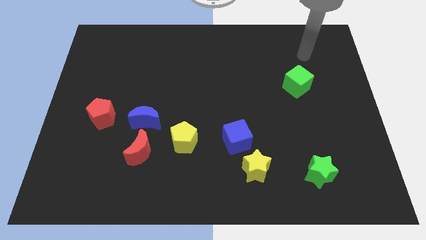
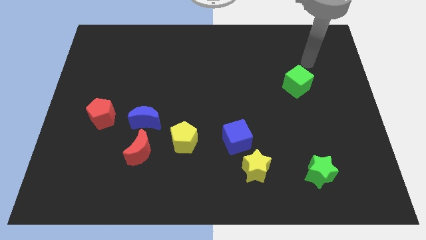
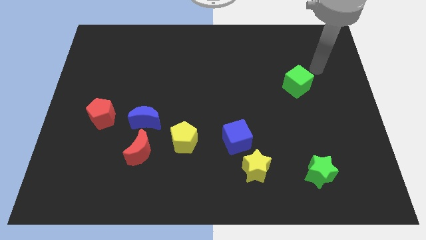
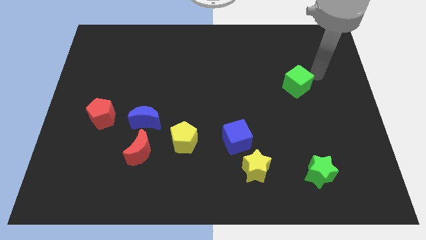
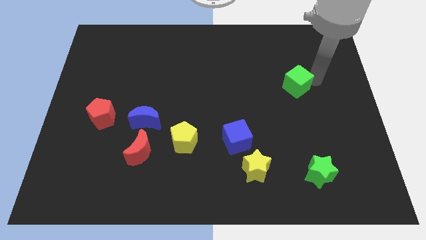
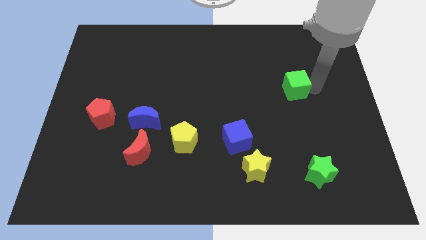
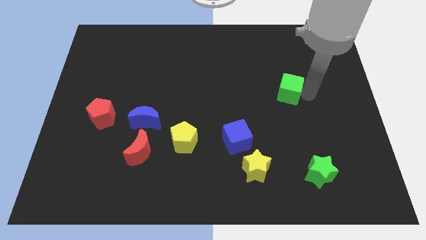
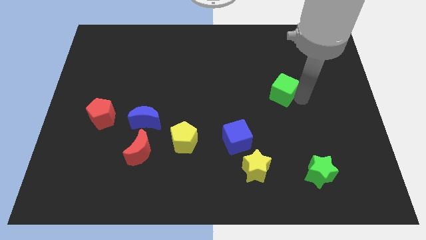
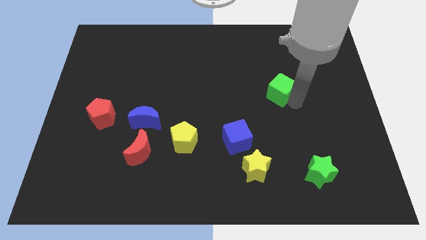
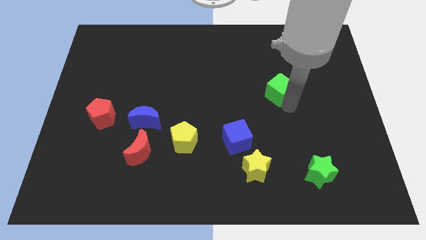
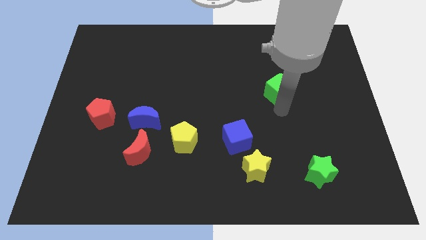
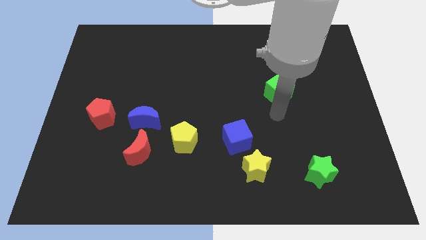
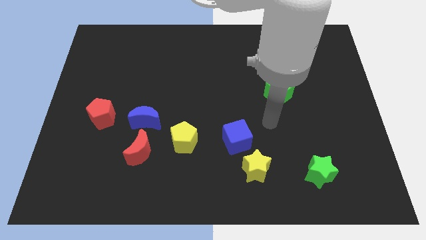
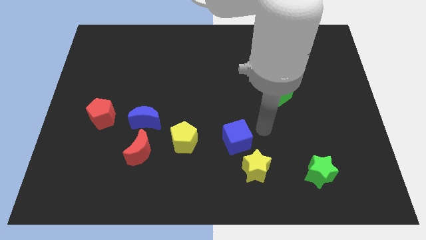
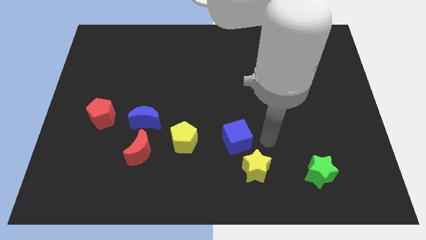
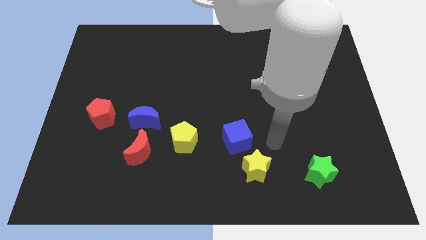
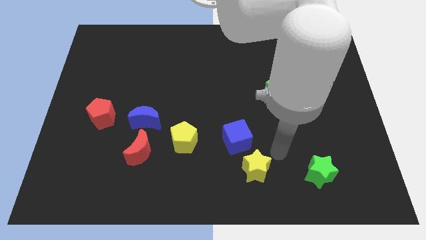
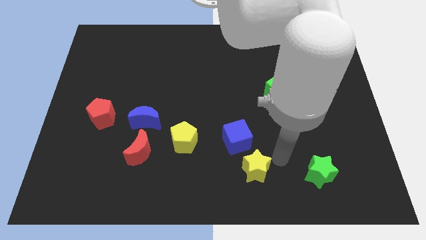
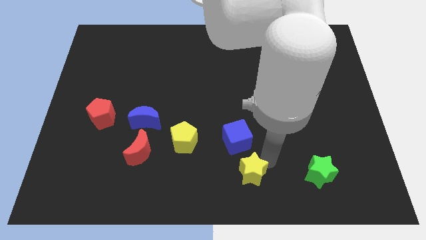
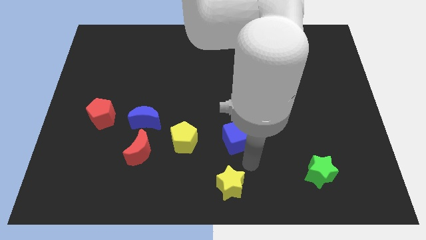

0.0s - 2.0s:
separate the blue cube from the yellow star

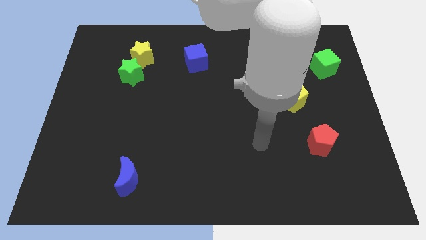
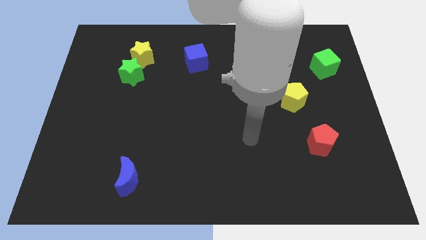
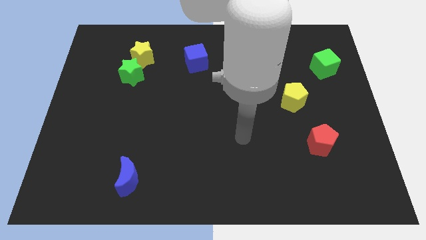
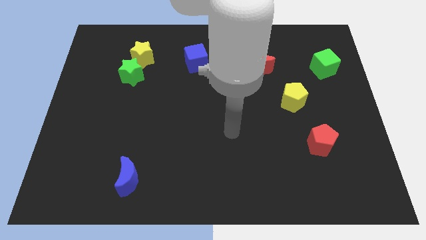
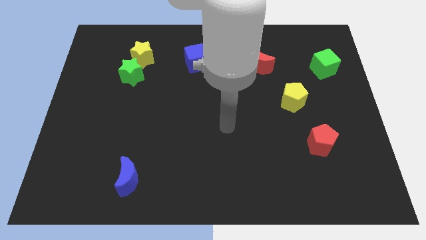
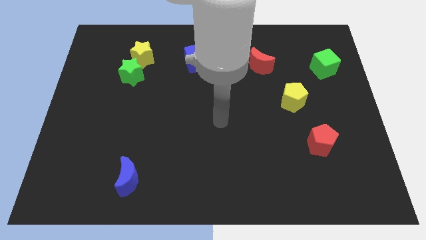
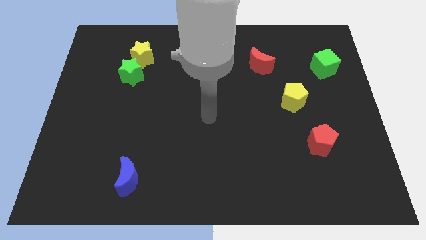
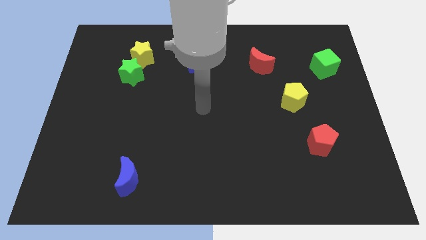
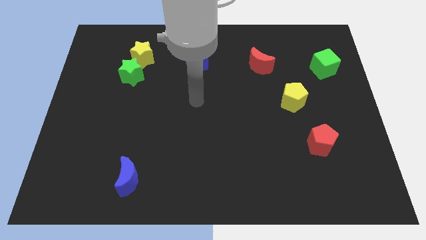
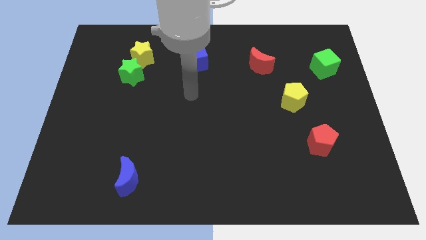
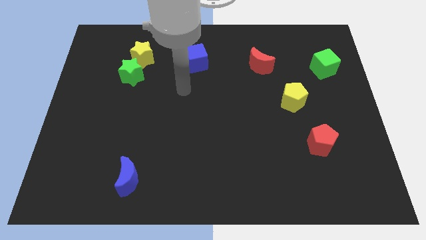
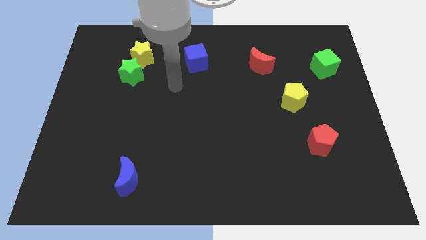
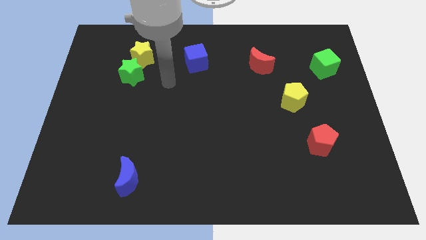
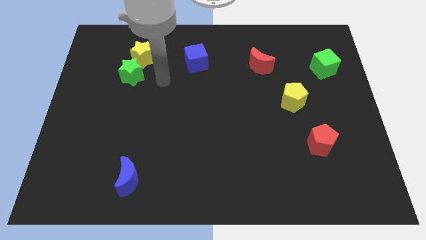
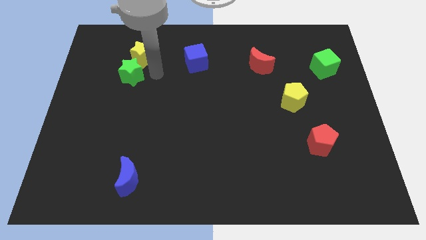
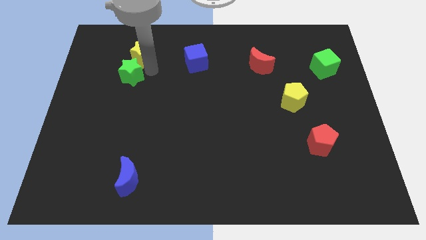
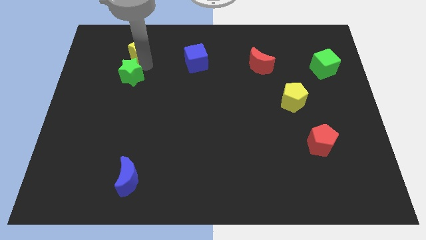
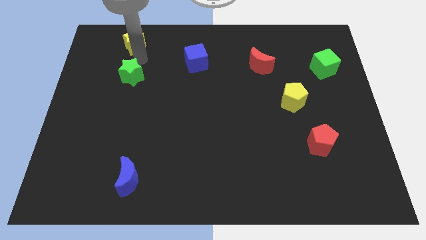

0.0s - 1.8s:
pull the green star apart from the yellow star

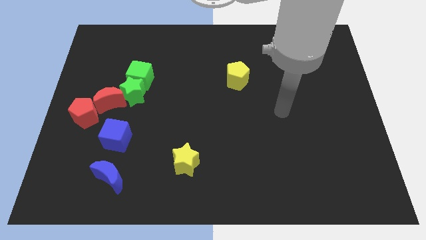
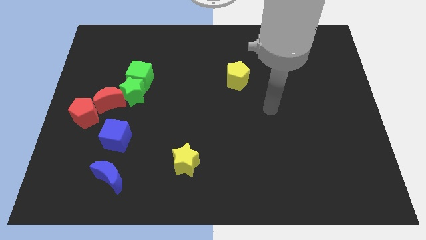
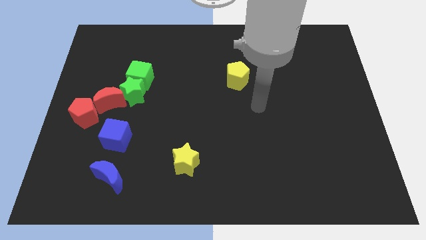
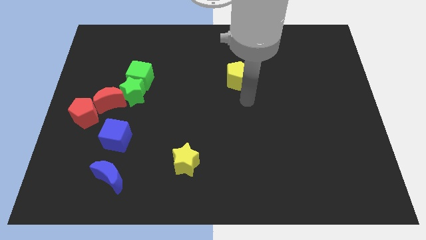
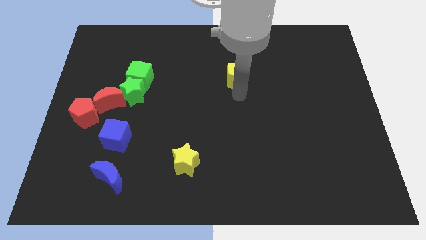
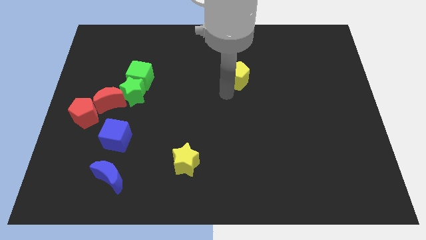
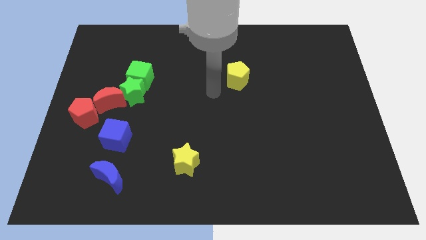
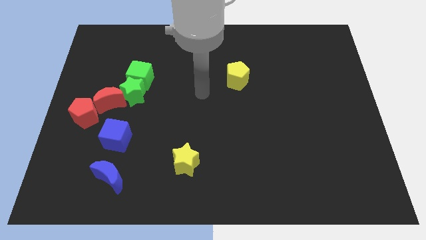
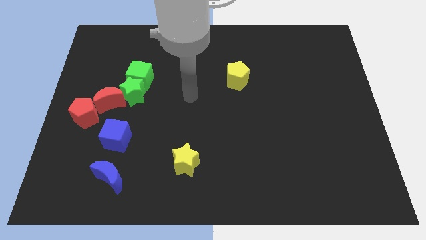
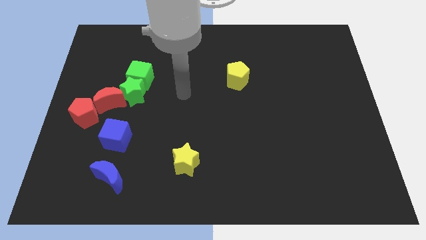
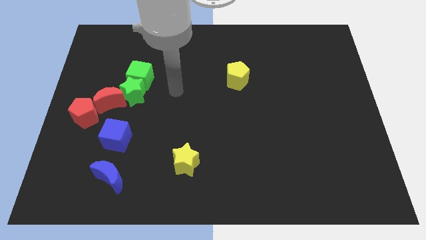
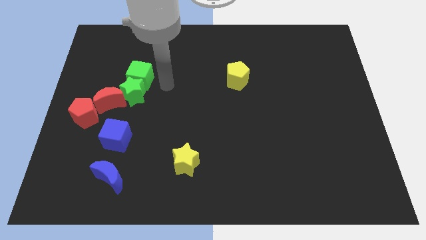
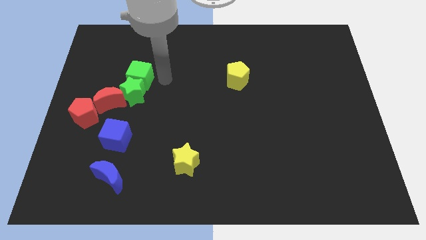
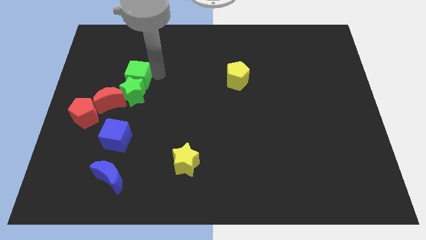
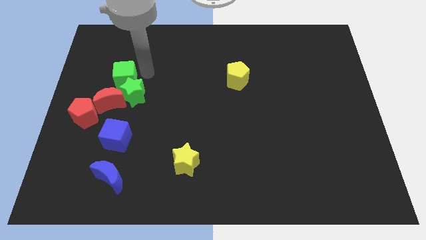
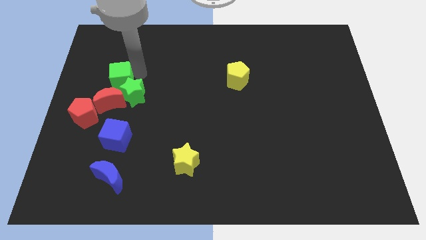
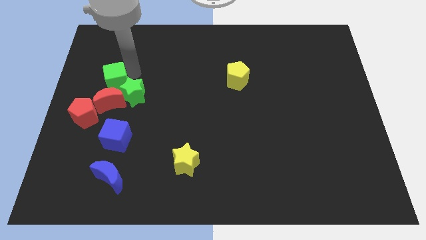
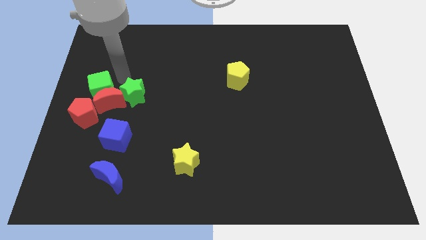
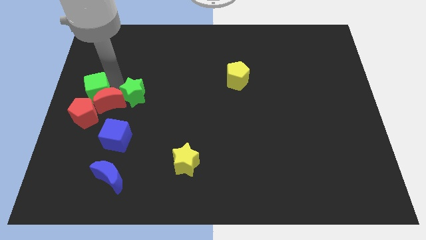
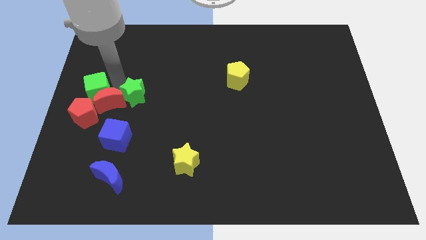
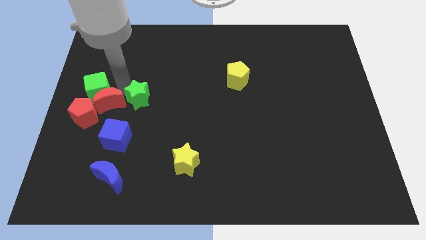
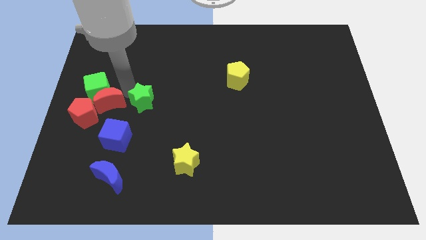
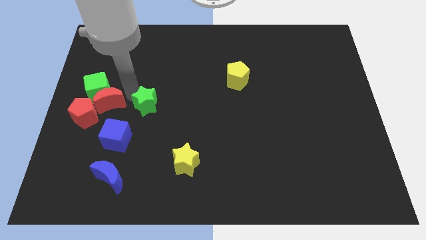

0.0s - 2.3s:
separate the green star from the green cube and red moon

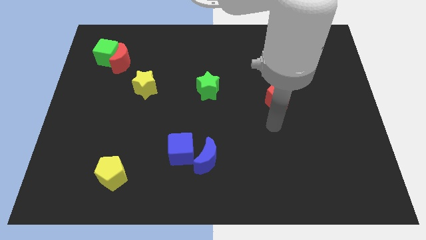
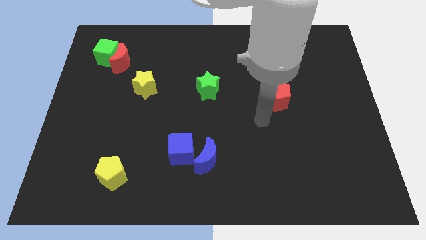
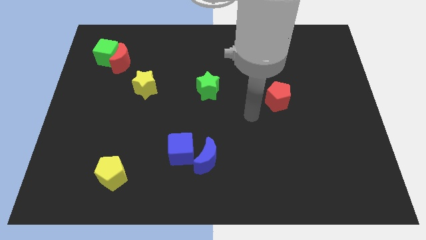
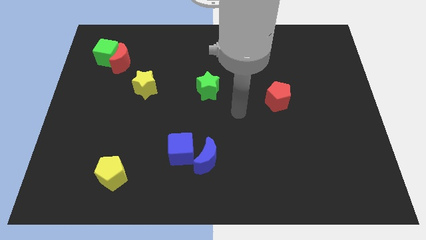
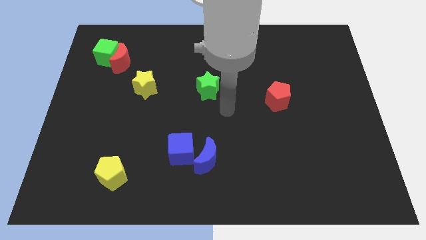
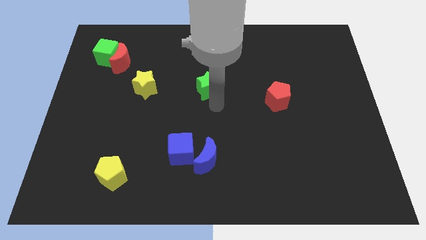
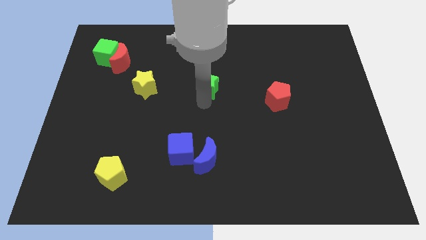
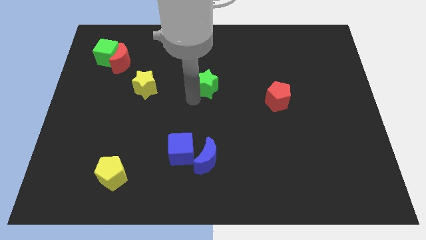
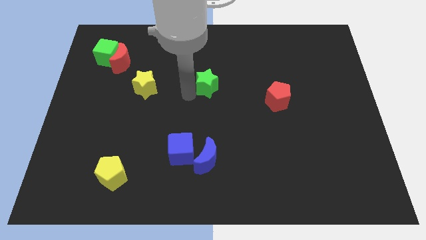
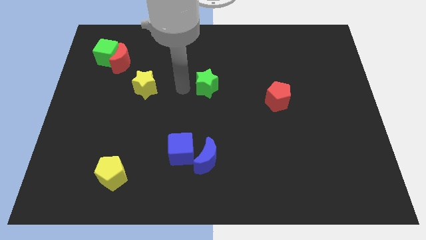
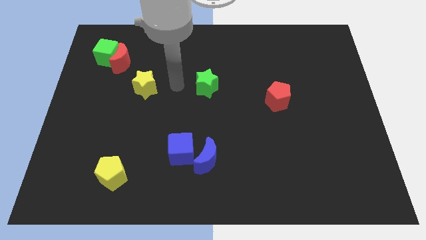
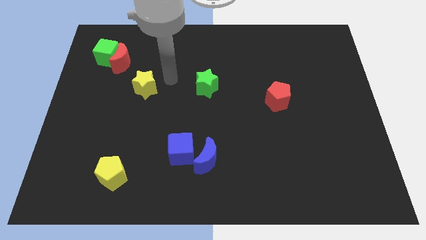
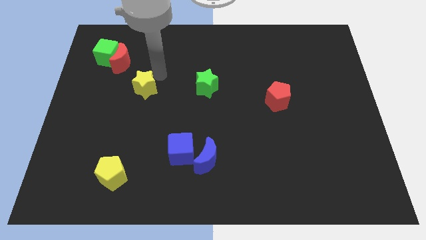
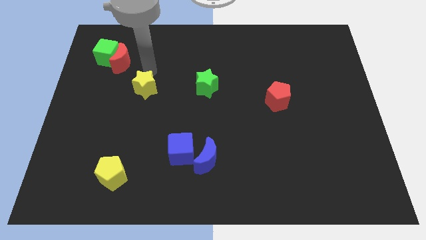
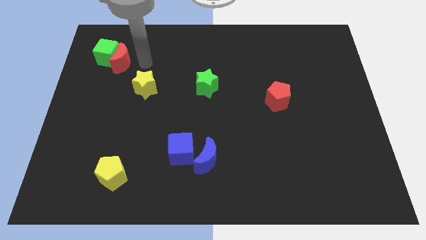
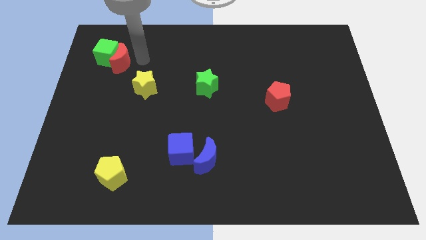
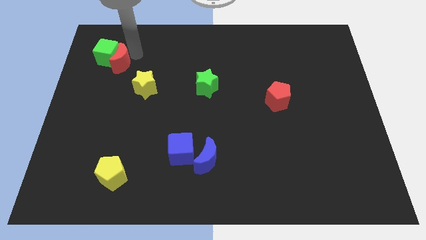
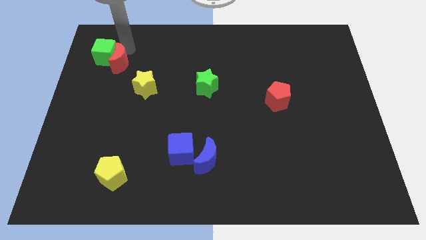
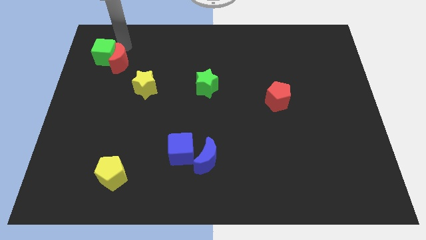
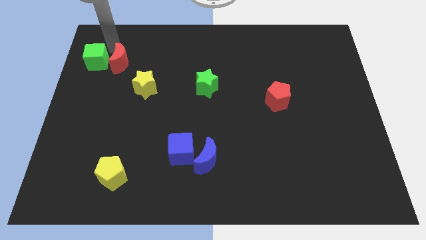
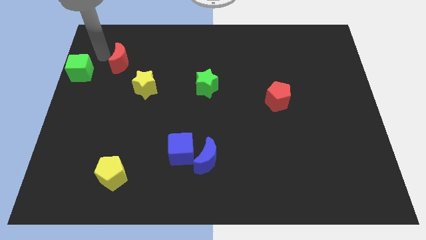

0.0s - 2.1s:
move the red moon away from the green cube

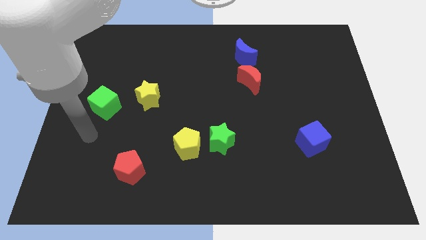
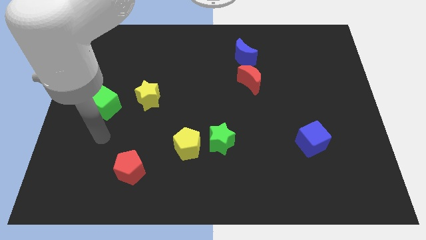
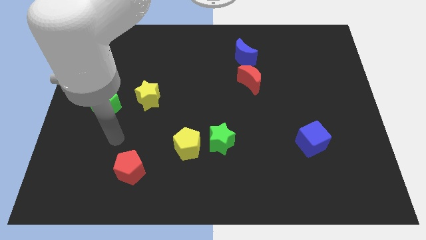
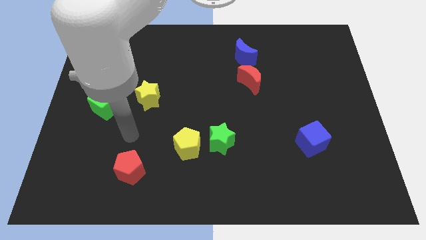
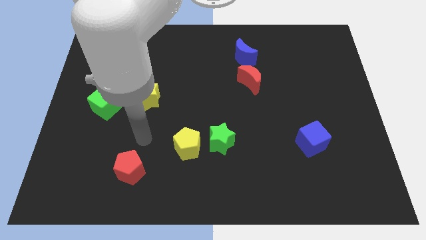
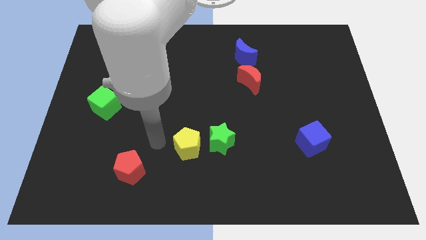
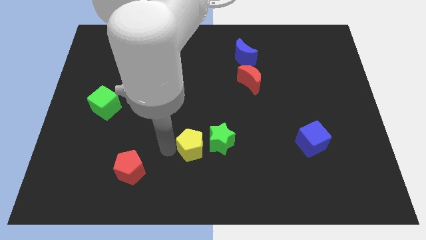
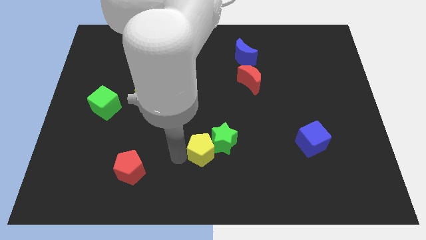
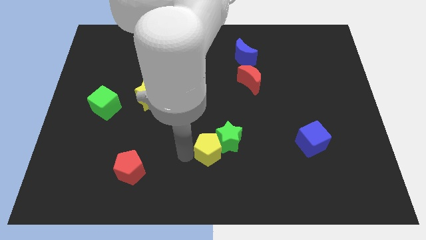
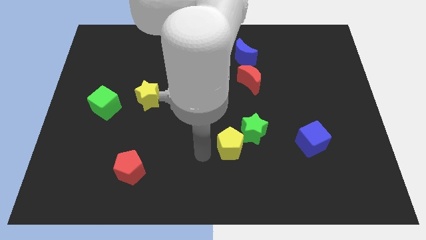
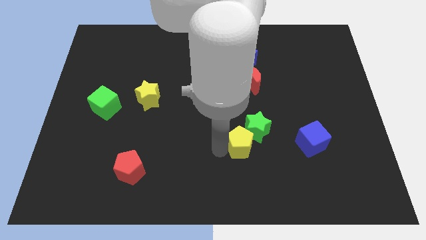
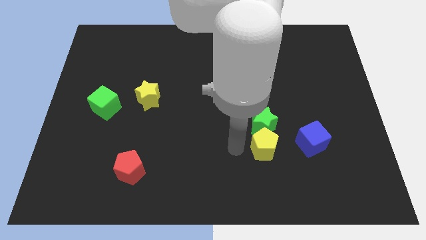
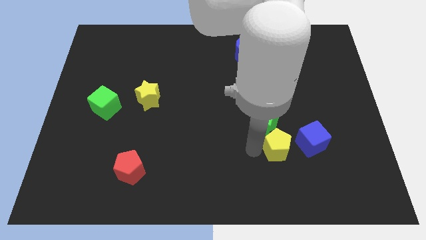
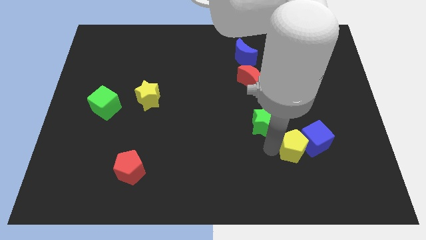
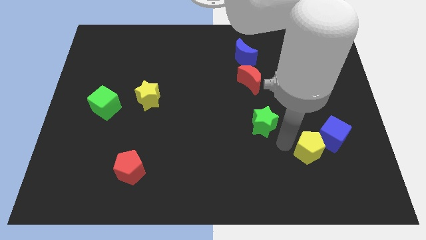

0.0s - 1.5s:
move the green star away from the yellow pentagon
